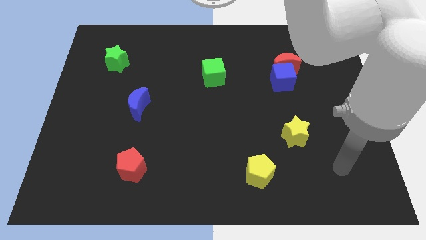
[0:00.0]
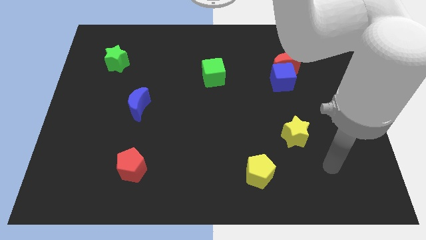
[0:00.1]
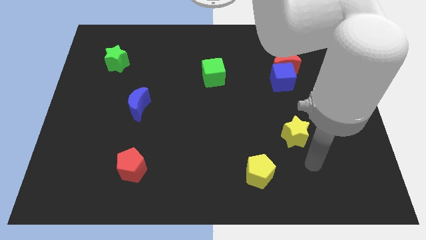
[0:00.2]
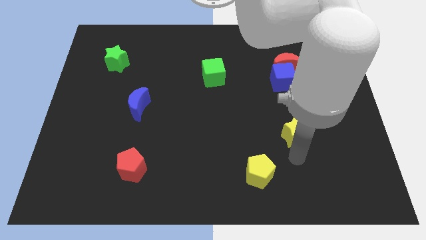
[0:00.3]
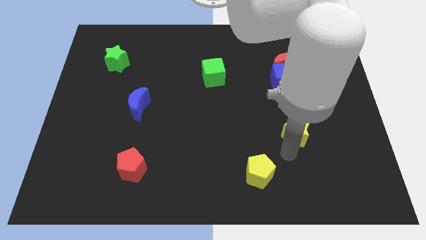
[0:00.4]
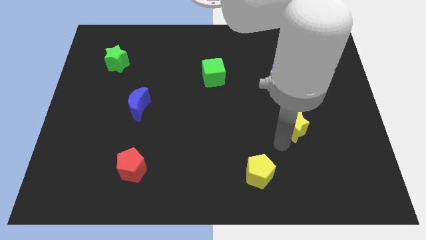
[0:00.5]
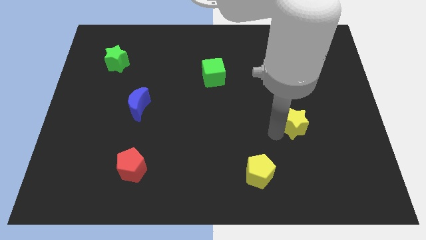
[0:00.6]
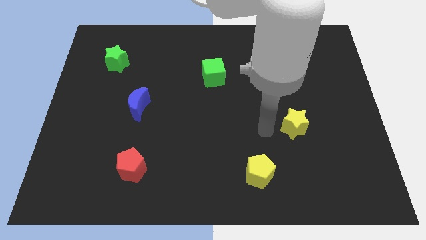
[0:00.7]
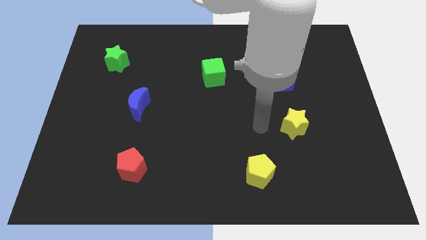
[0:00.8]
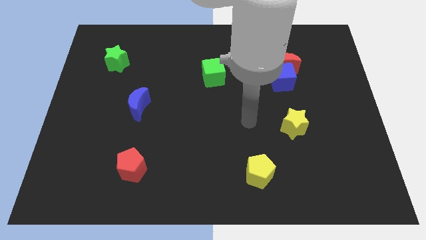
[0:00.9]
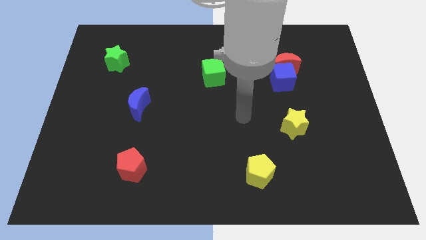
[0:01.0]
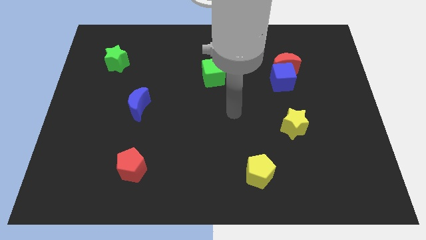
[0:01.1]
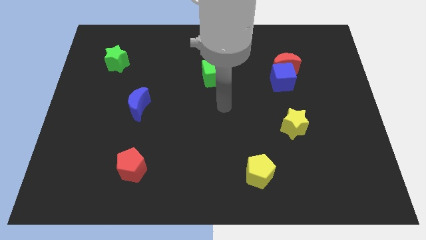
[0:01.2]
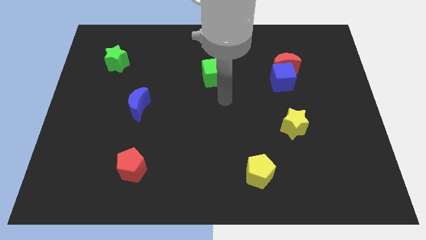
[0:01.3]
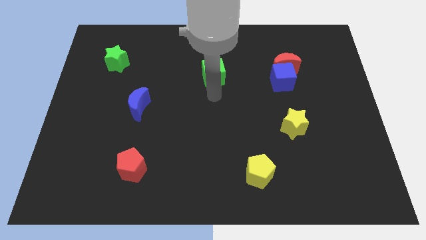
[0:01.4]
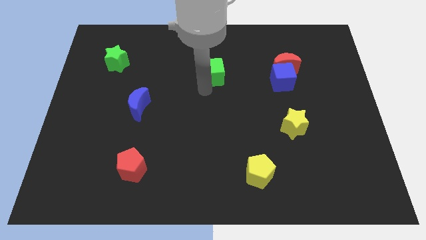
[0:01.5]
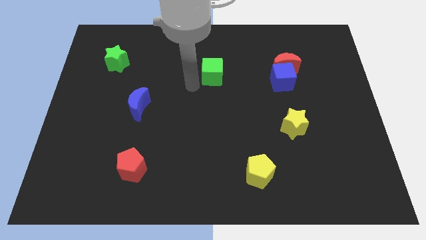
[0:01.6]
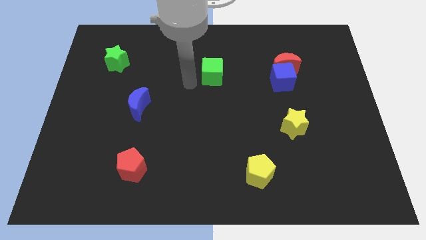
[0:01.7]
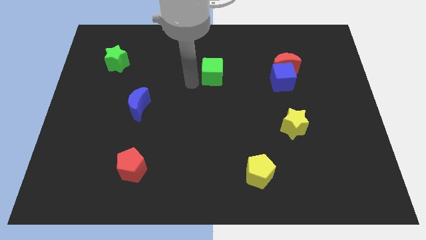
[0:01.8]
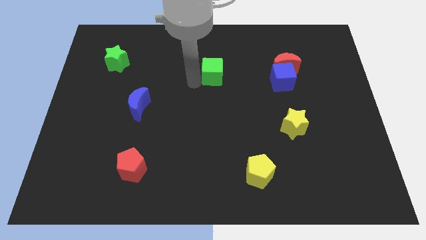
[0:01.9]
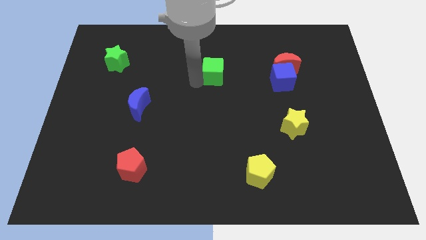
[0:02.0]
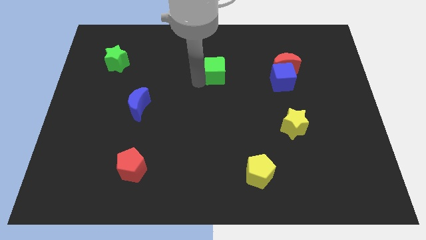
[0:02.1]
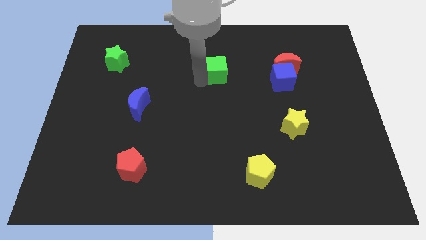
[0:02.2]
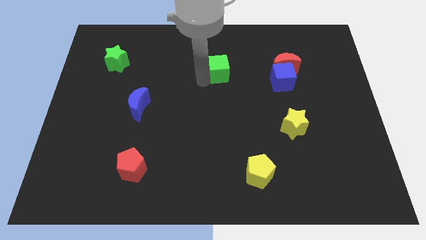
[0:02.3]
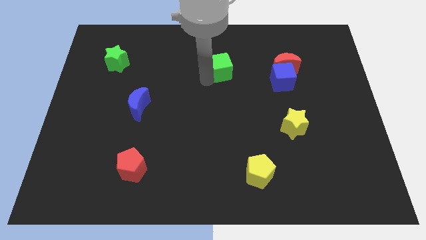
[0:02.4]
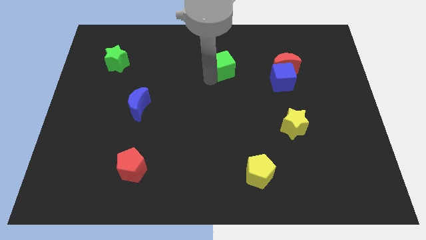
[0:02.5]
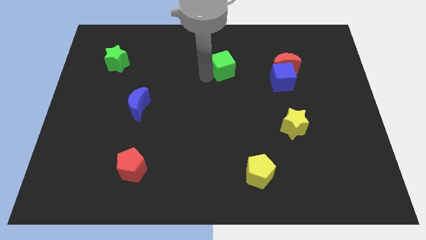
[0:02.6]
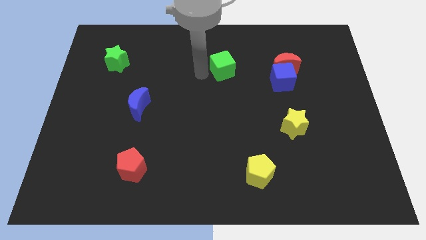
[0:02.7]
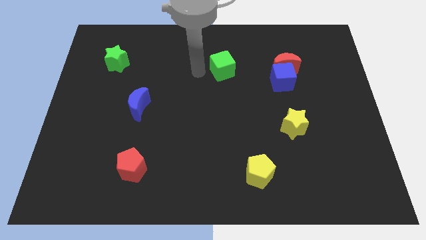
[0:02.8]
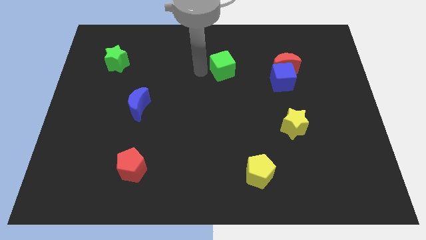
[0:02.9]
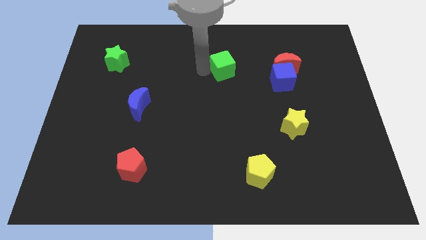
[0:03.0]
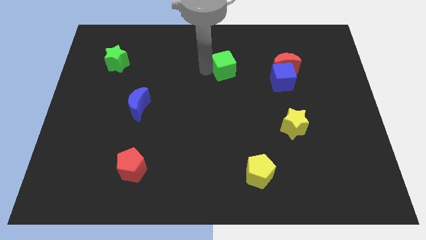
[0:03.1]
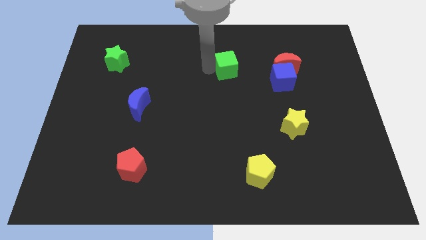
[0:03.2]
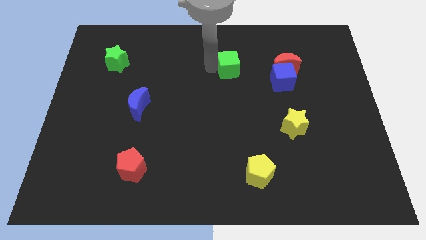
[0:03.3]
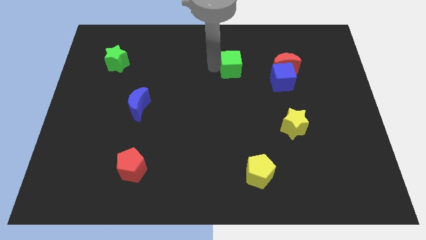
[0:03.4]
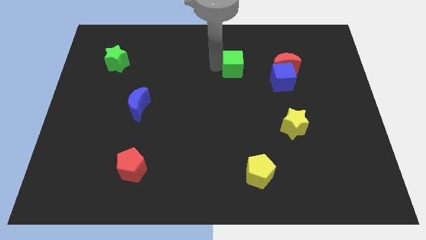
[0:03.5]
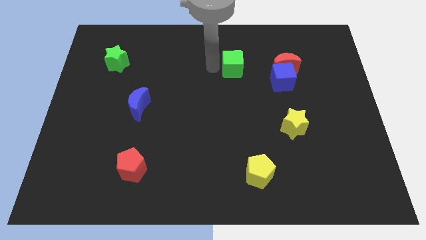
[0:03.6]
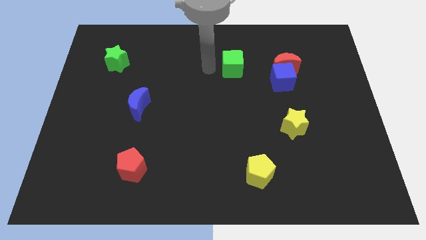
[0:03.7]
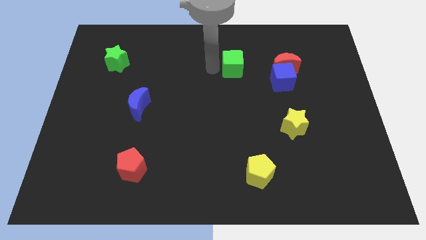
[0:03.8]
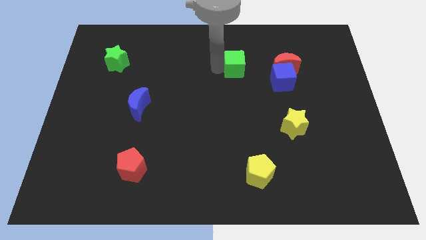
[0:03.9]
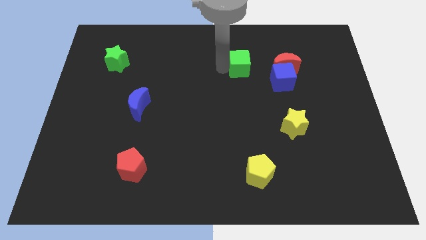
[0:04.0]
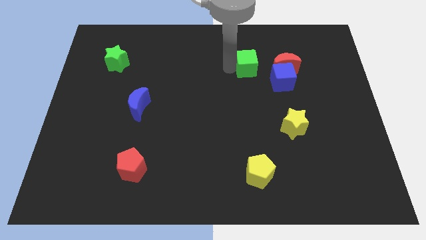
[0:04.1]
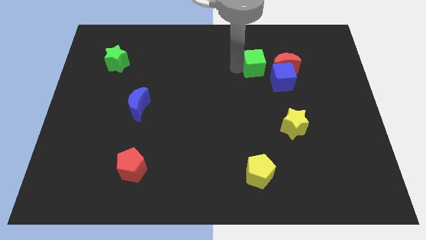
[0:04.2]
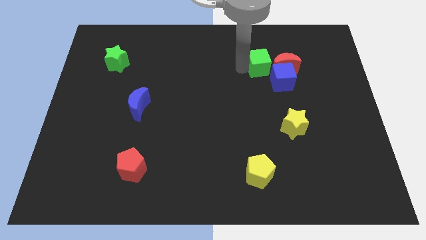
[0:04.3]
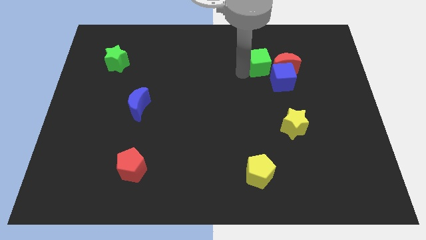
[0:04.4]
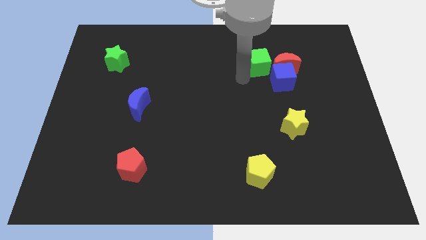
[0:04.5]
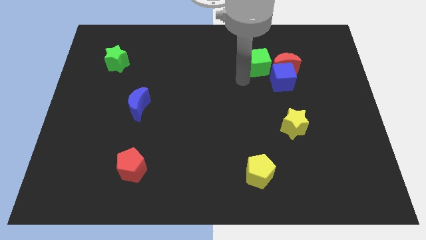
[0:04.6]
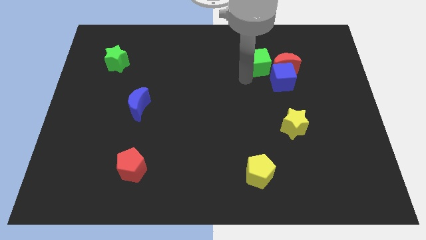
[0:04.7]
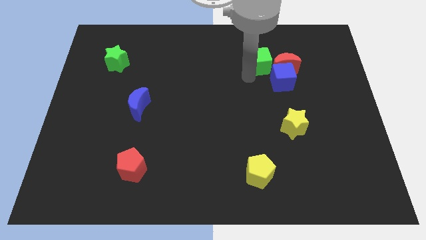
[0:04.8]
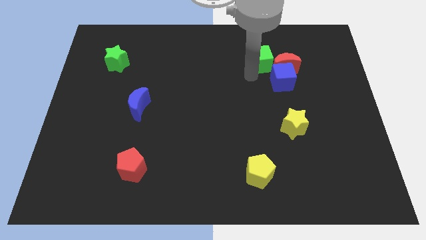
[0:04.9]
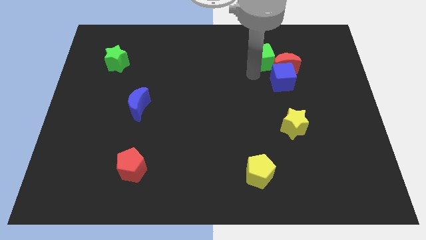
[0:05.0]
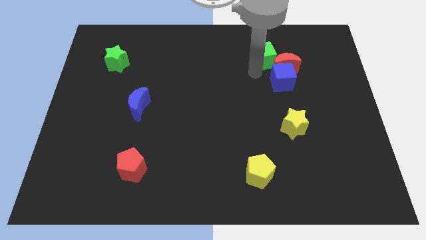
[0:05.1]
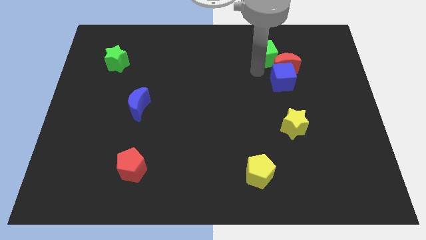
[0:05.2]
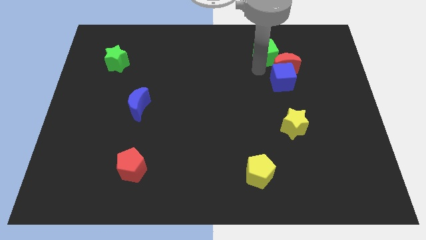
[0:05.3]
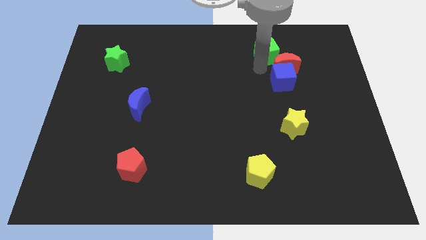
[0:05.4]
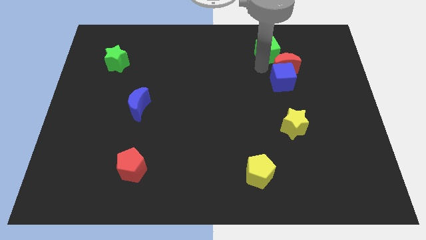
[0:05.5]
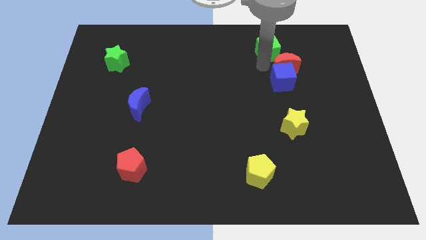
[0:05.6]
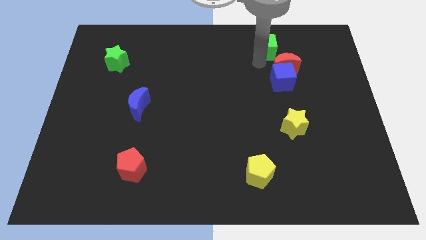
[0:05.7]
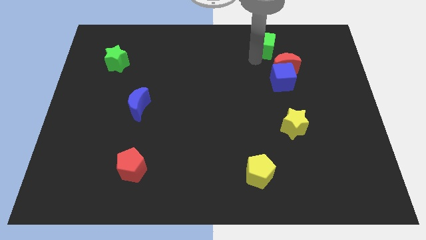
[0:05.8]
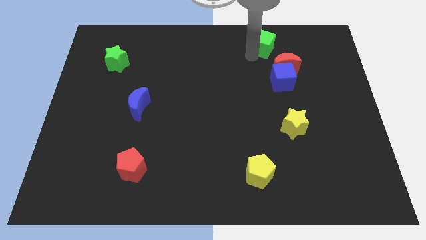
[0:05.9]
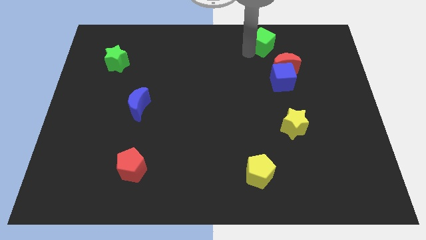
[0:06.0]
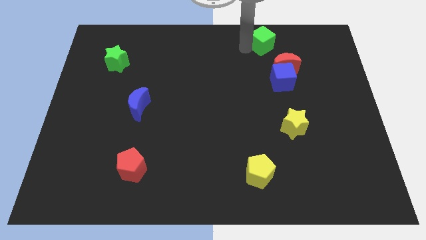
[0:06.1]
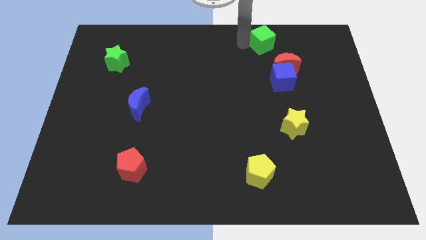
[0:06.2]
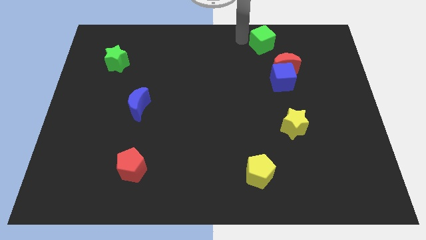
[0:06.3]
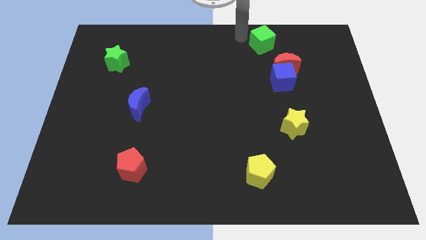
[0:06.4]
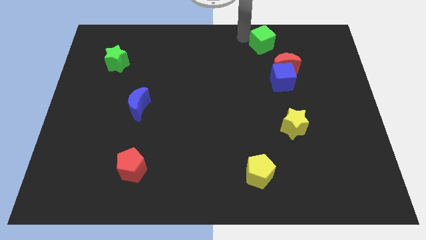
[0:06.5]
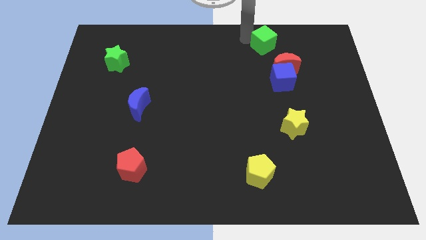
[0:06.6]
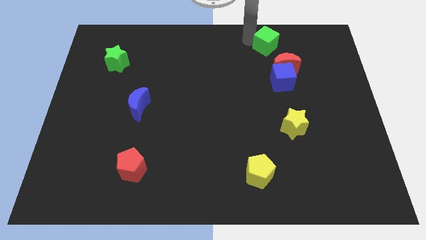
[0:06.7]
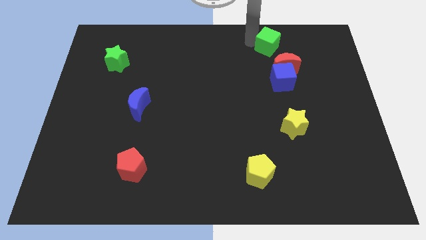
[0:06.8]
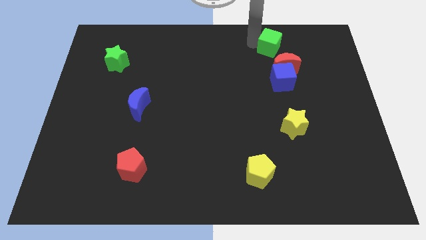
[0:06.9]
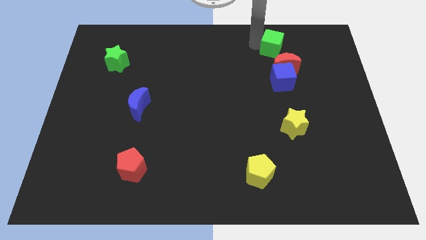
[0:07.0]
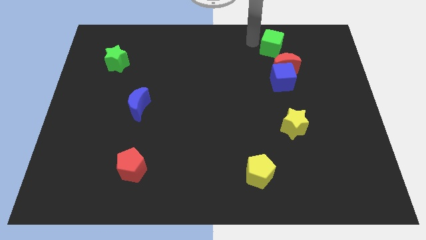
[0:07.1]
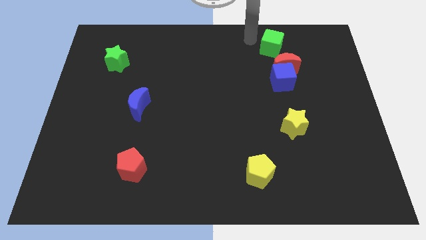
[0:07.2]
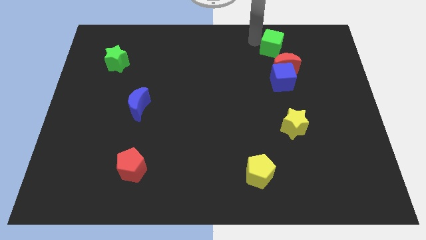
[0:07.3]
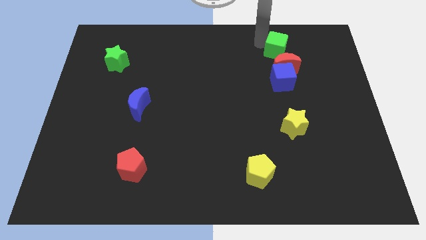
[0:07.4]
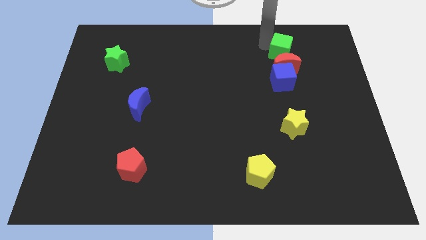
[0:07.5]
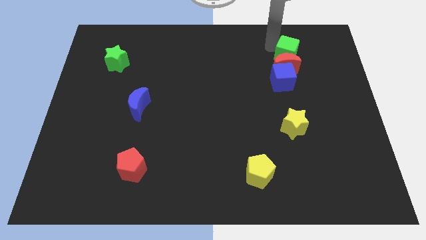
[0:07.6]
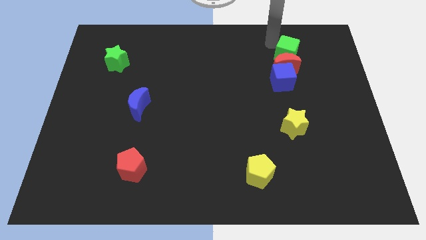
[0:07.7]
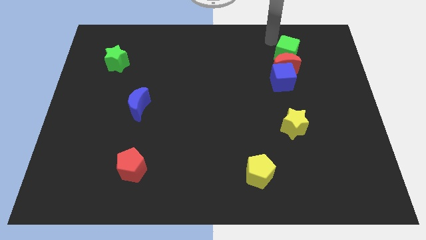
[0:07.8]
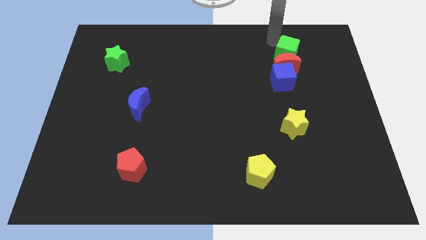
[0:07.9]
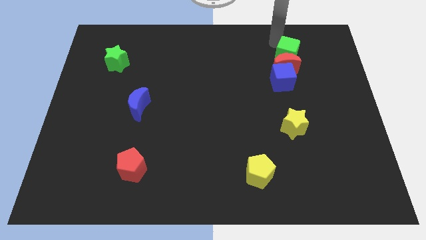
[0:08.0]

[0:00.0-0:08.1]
slide the green cube to the top right side of the blue cube
